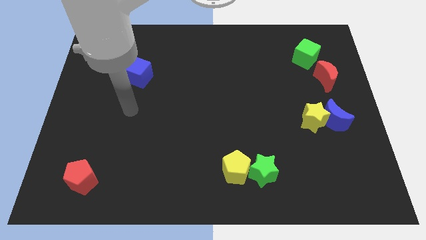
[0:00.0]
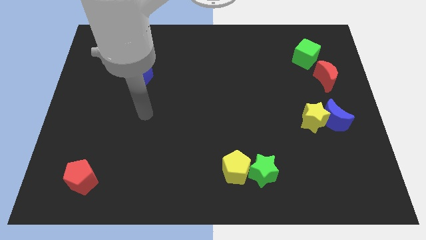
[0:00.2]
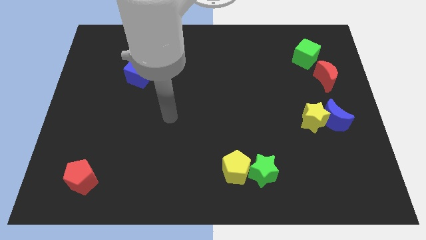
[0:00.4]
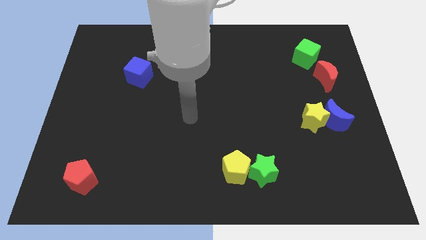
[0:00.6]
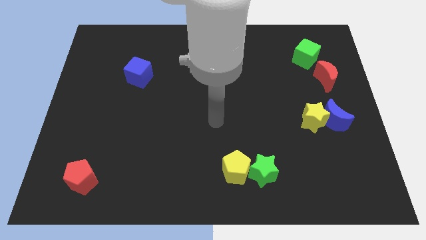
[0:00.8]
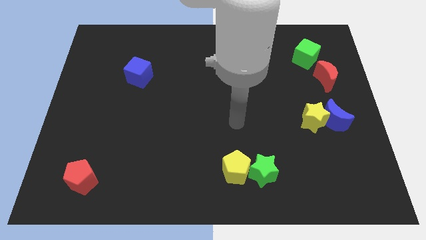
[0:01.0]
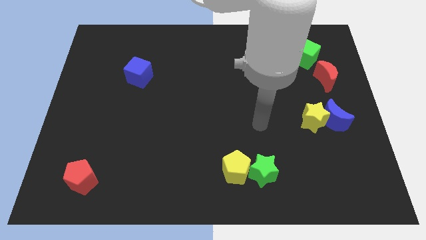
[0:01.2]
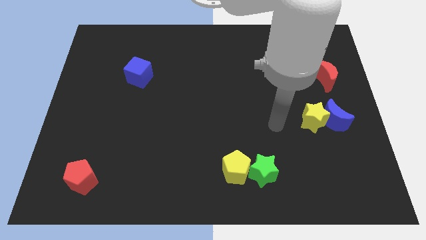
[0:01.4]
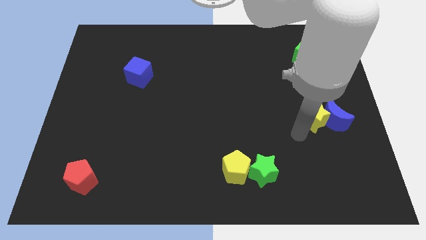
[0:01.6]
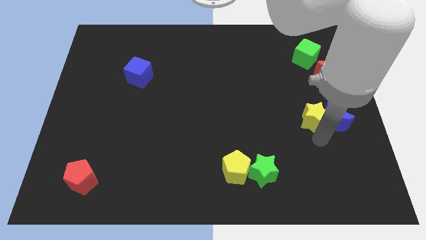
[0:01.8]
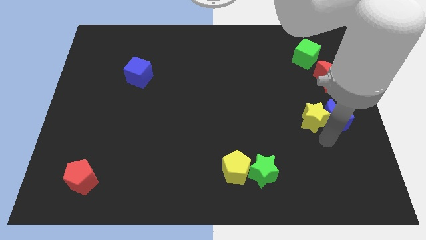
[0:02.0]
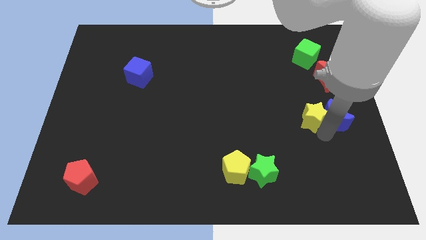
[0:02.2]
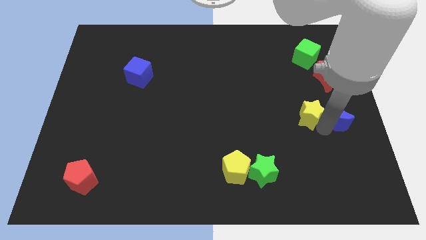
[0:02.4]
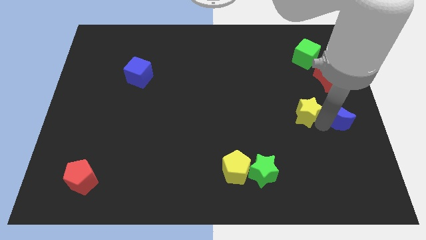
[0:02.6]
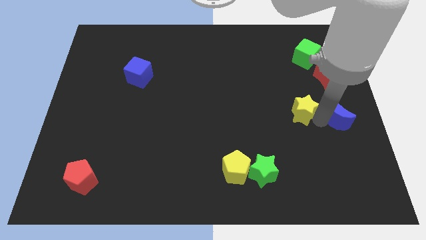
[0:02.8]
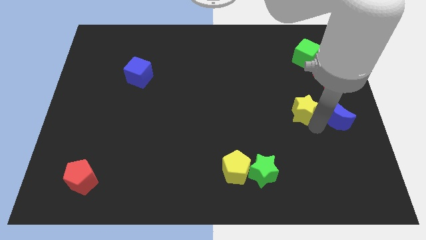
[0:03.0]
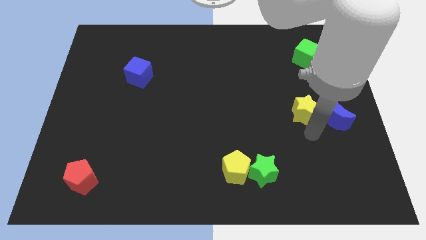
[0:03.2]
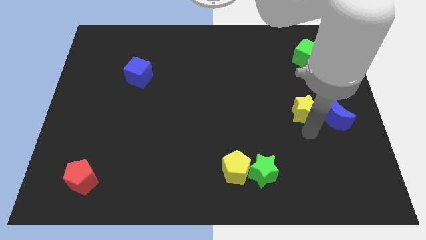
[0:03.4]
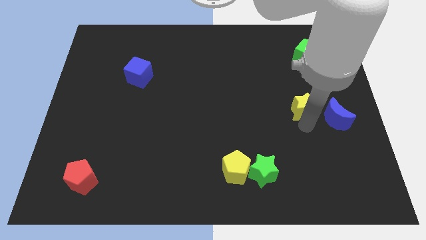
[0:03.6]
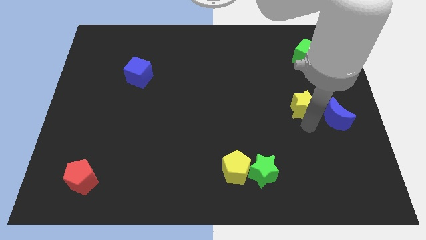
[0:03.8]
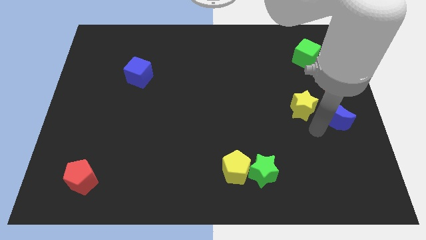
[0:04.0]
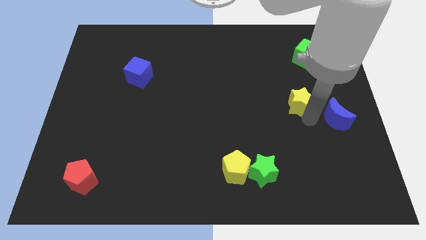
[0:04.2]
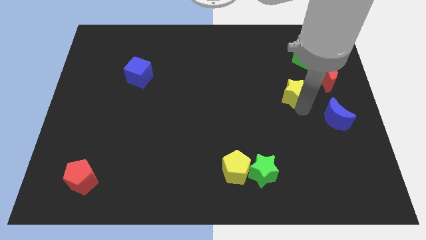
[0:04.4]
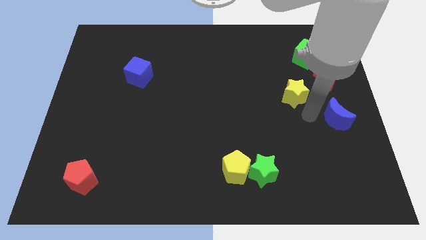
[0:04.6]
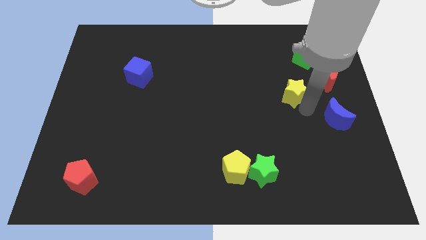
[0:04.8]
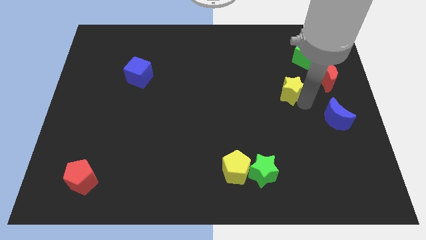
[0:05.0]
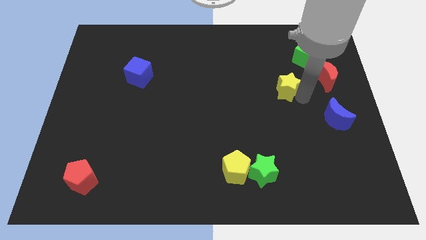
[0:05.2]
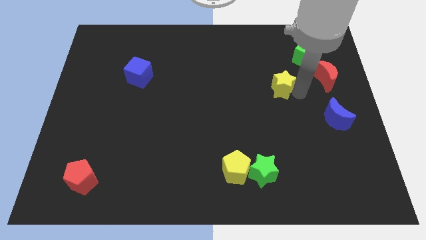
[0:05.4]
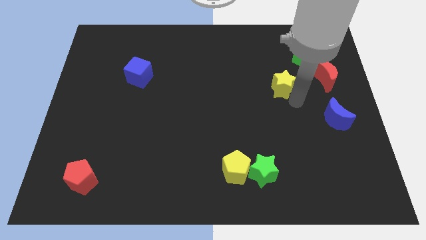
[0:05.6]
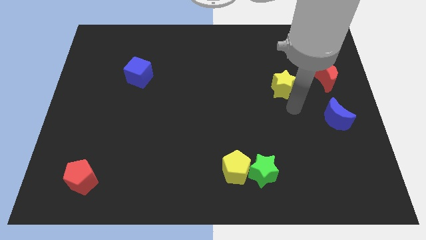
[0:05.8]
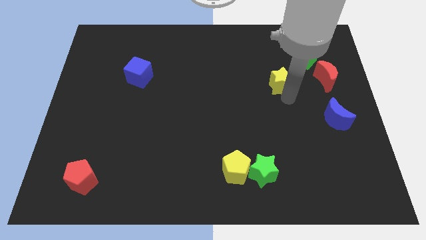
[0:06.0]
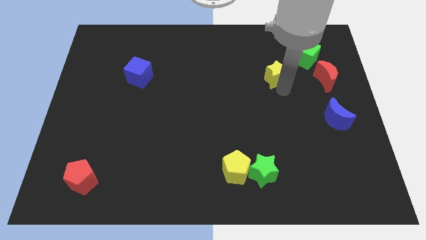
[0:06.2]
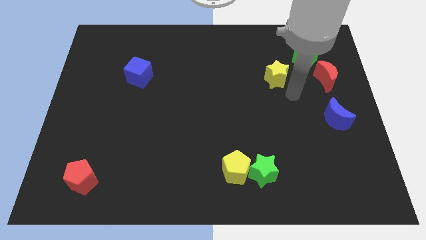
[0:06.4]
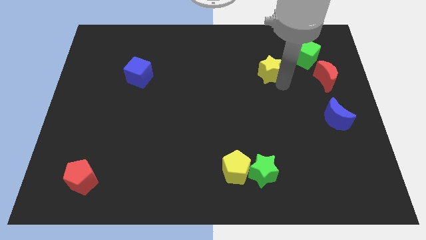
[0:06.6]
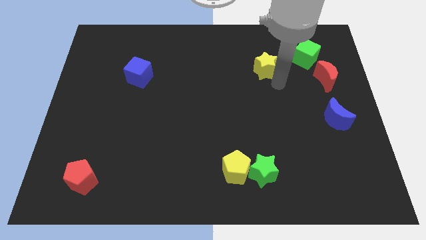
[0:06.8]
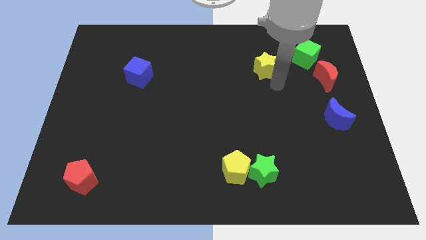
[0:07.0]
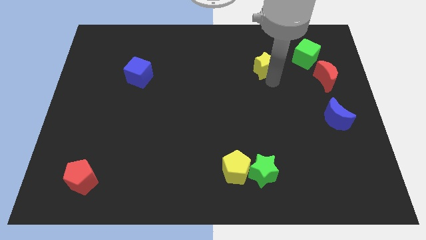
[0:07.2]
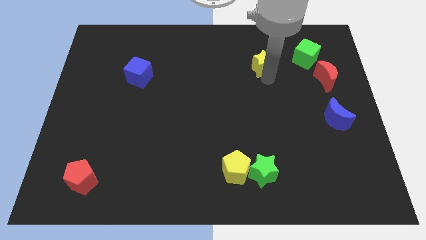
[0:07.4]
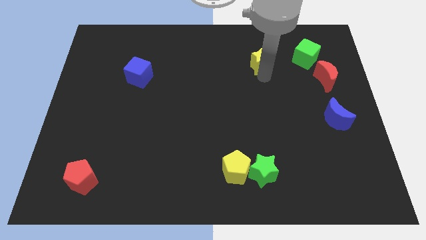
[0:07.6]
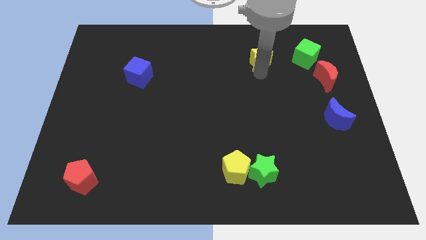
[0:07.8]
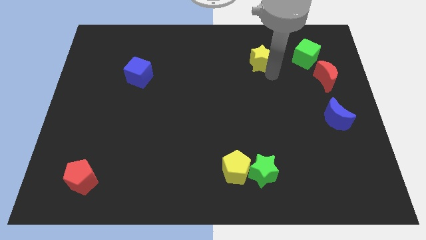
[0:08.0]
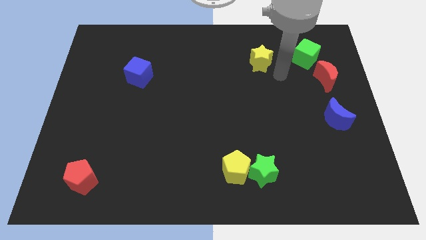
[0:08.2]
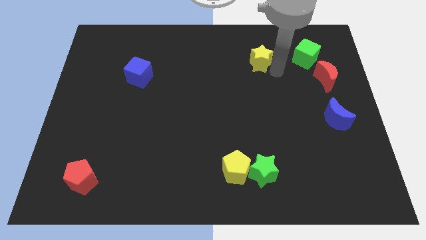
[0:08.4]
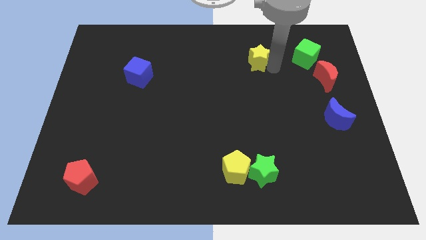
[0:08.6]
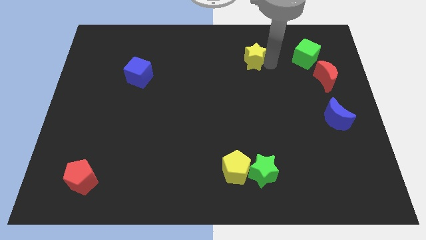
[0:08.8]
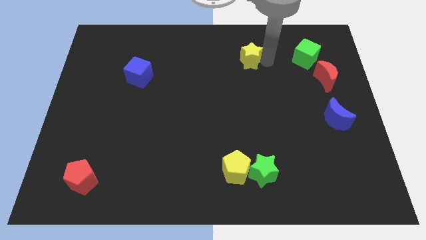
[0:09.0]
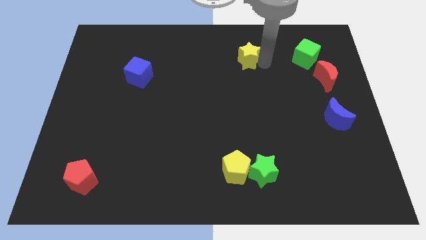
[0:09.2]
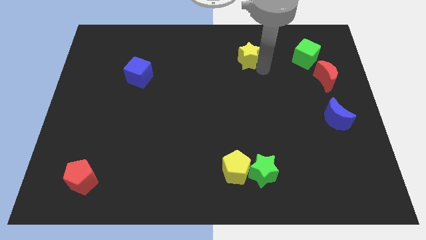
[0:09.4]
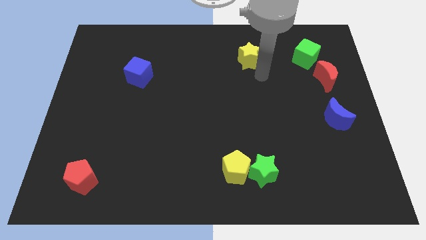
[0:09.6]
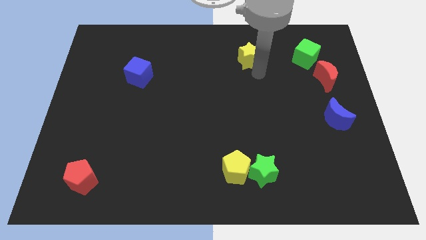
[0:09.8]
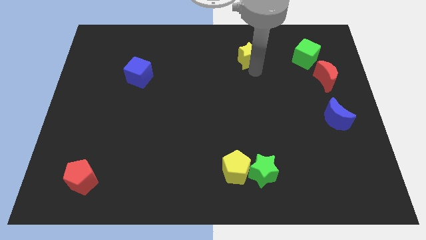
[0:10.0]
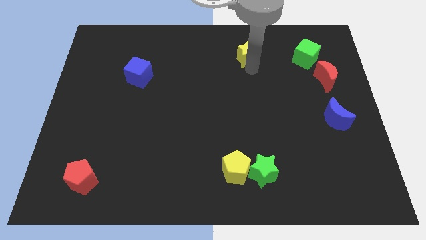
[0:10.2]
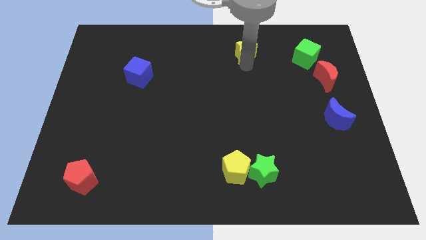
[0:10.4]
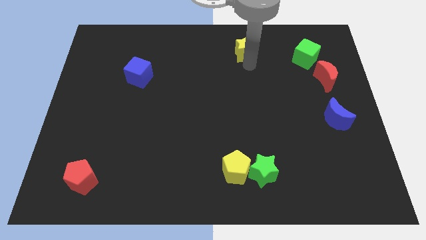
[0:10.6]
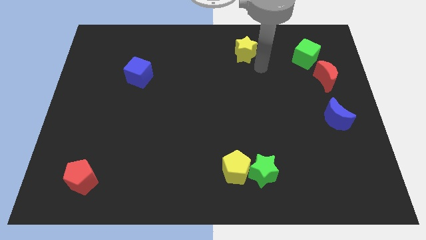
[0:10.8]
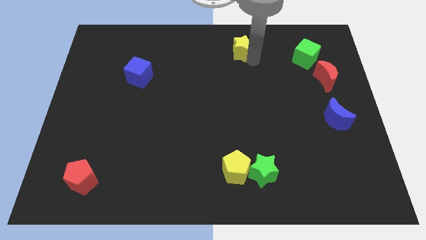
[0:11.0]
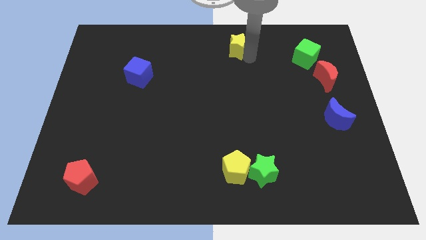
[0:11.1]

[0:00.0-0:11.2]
put the yellow star to the towards your base

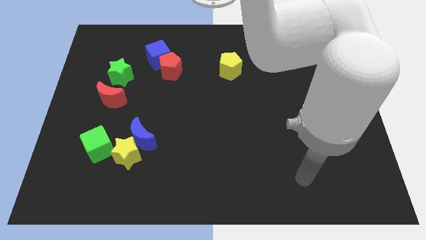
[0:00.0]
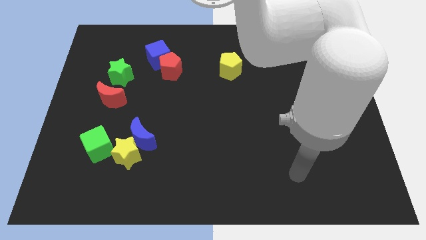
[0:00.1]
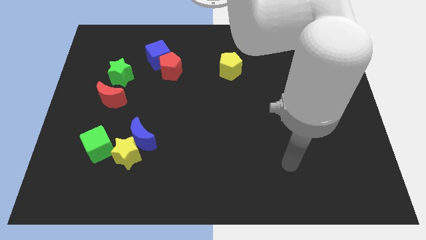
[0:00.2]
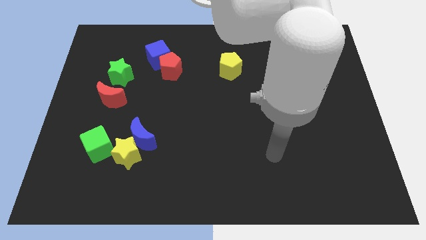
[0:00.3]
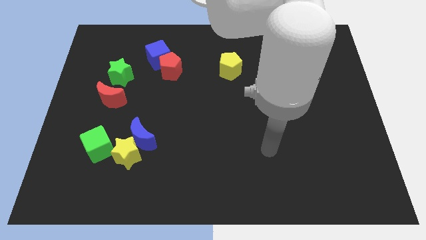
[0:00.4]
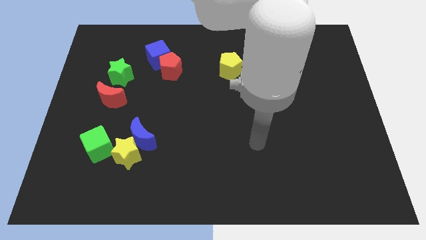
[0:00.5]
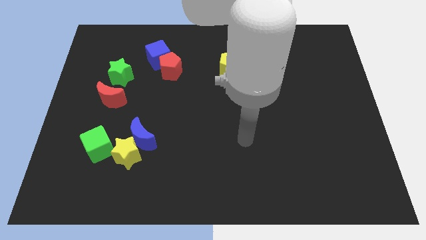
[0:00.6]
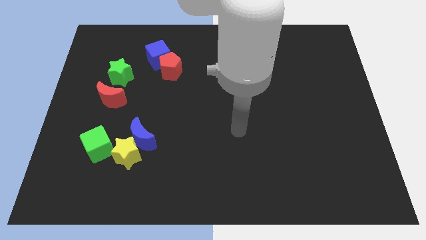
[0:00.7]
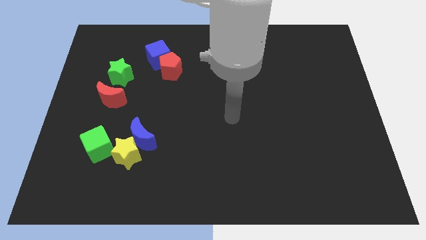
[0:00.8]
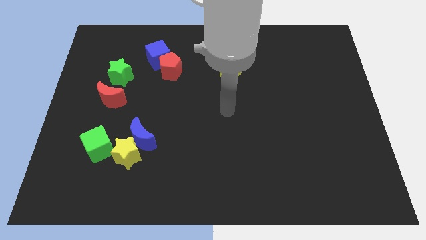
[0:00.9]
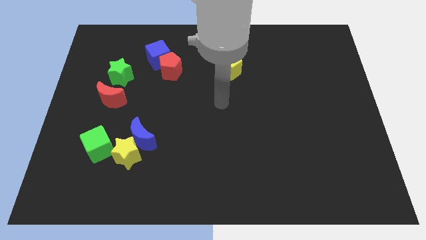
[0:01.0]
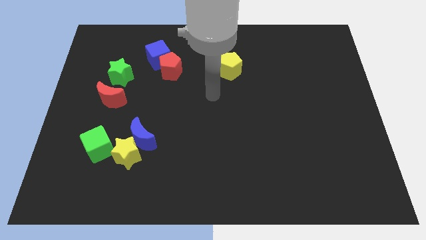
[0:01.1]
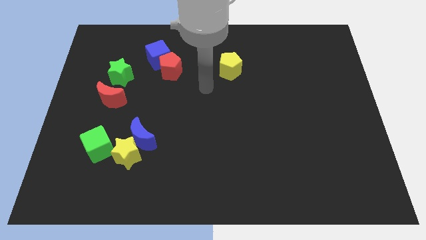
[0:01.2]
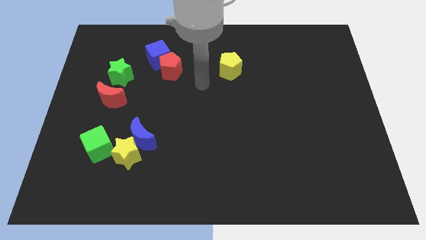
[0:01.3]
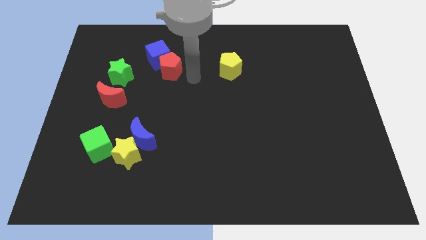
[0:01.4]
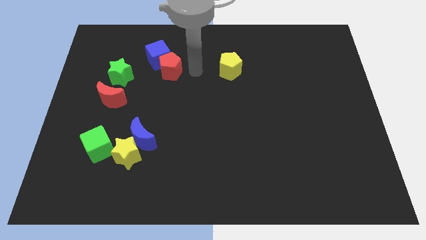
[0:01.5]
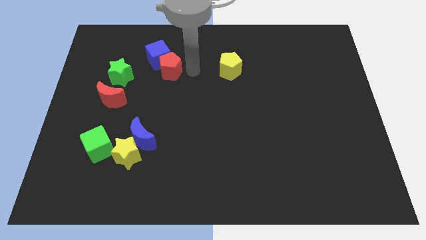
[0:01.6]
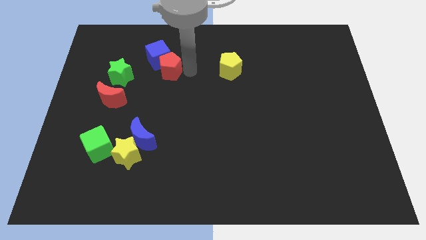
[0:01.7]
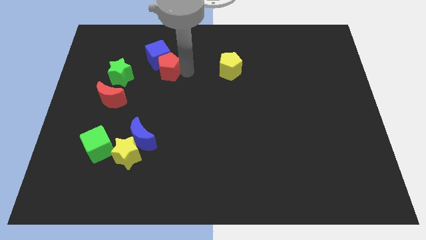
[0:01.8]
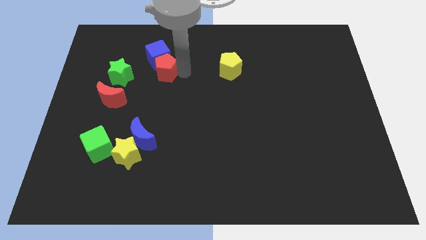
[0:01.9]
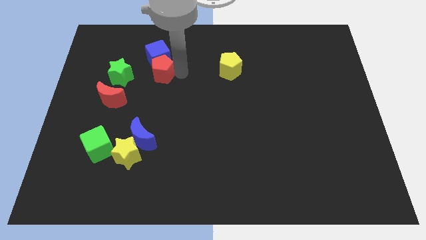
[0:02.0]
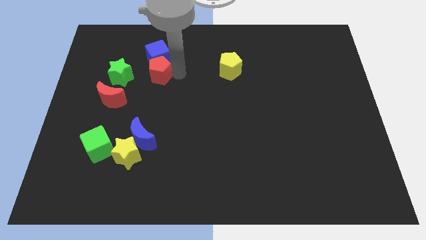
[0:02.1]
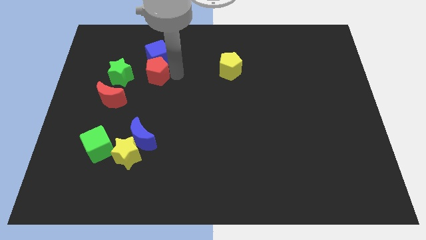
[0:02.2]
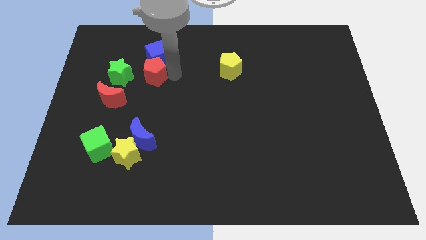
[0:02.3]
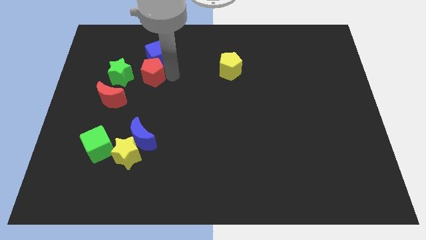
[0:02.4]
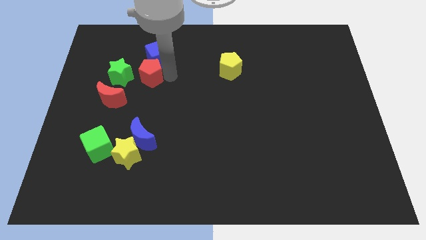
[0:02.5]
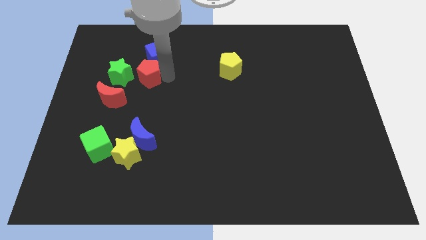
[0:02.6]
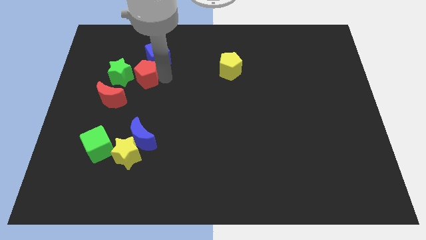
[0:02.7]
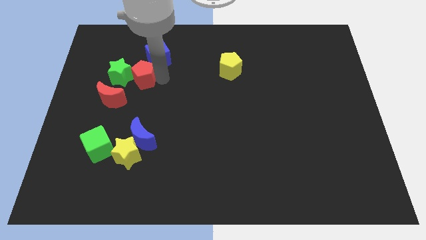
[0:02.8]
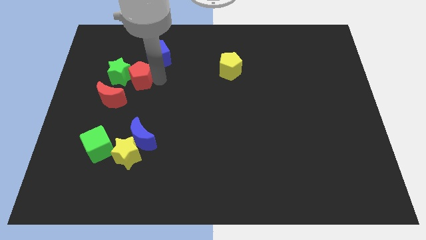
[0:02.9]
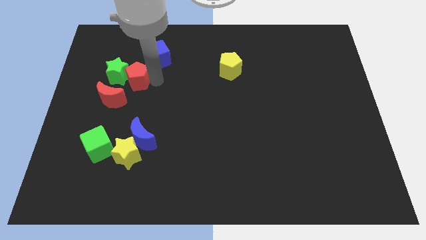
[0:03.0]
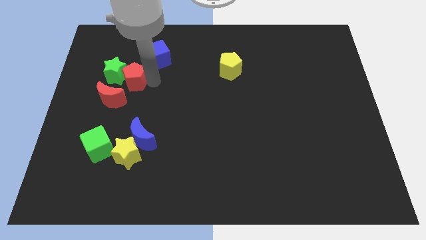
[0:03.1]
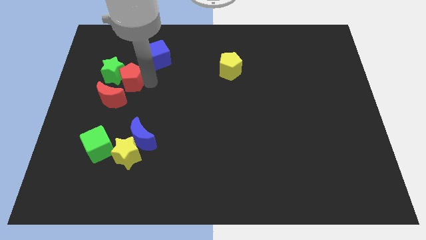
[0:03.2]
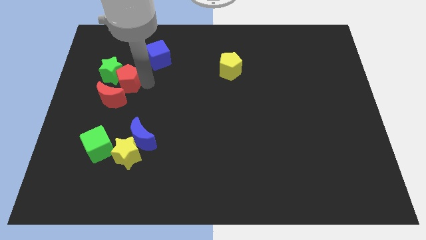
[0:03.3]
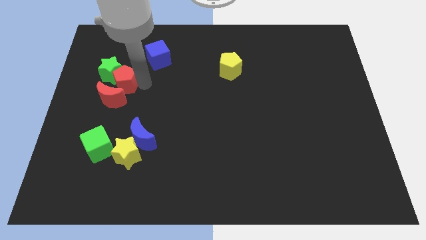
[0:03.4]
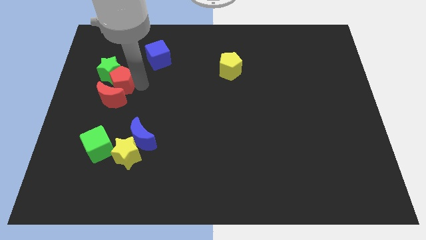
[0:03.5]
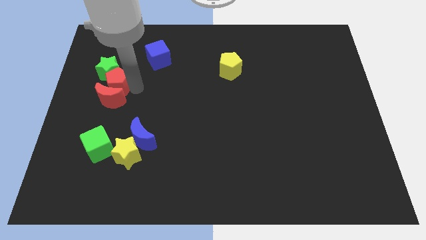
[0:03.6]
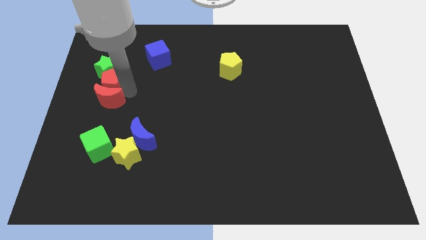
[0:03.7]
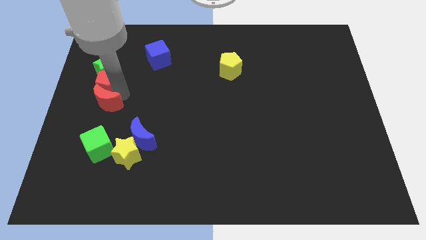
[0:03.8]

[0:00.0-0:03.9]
push the red pentagon to the left side
